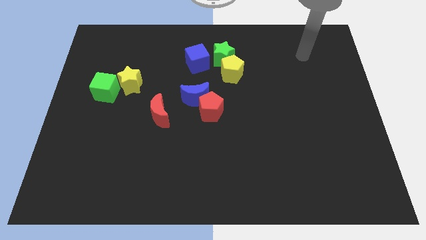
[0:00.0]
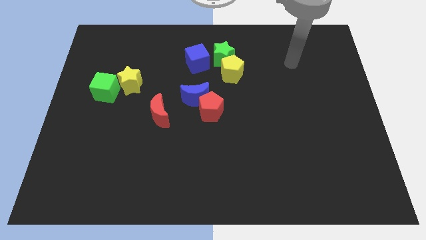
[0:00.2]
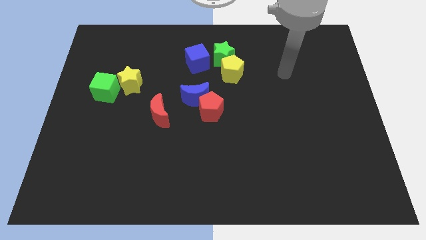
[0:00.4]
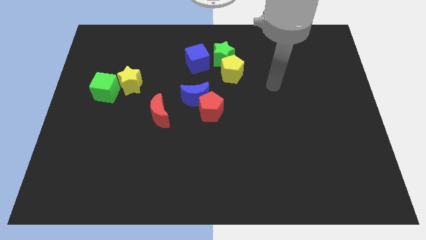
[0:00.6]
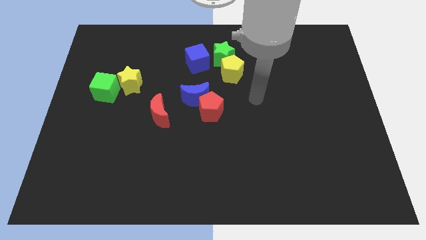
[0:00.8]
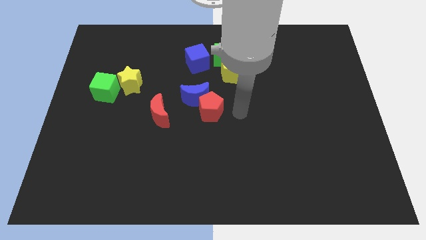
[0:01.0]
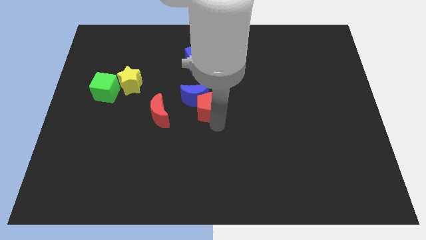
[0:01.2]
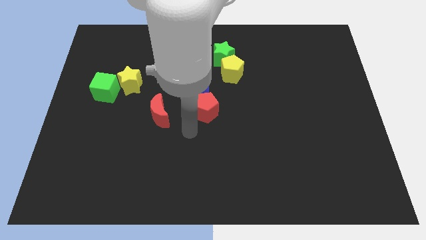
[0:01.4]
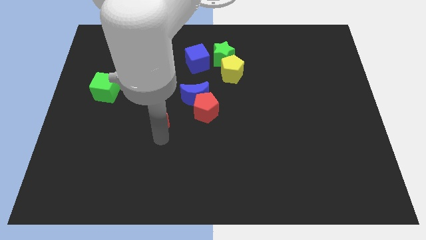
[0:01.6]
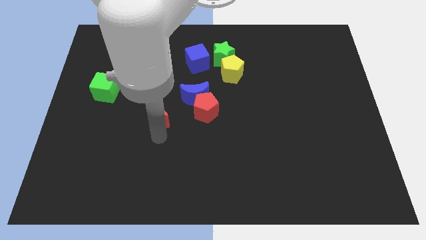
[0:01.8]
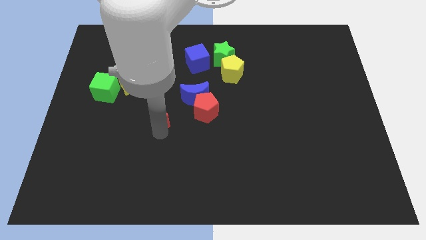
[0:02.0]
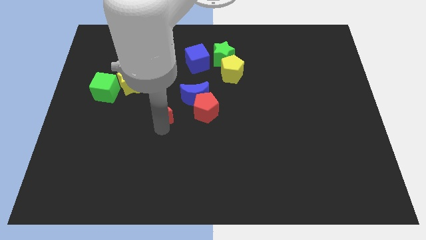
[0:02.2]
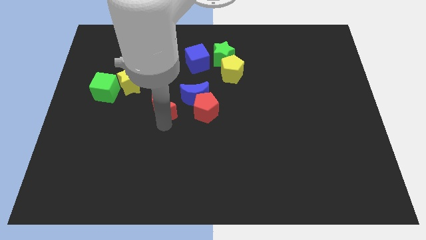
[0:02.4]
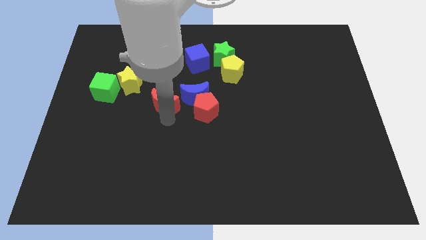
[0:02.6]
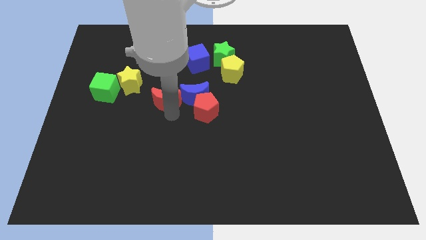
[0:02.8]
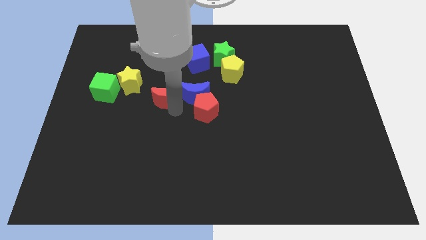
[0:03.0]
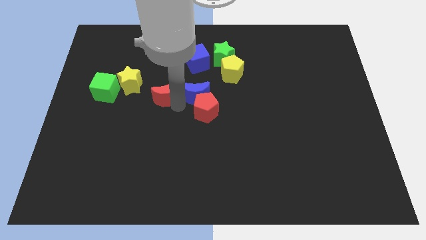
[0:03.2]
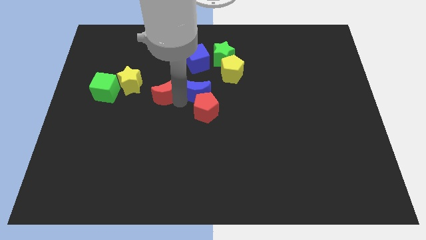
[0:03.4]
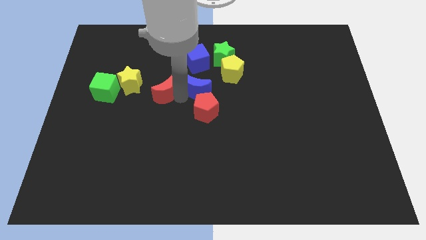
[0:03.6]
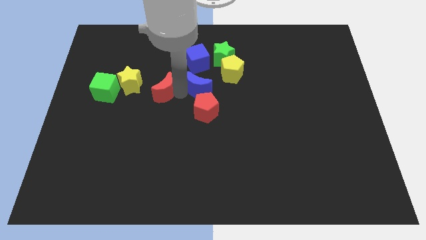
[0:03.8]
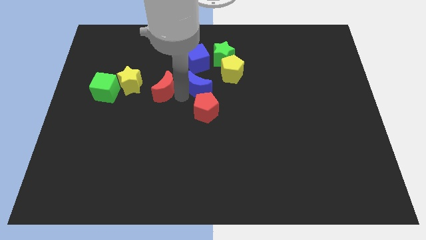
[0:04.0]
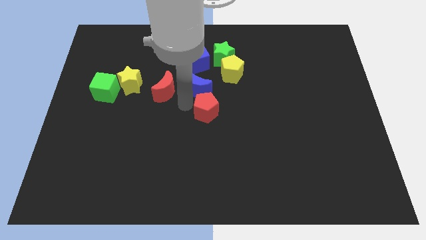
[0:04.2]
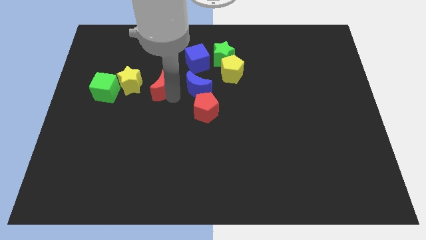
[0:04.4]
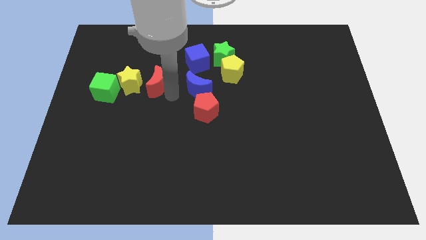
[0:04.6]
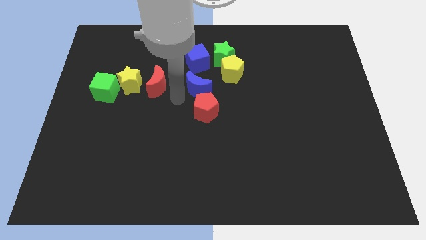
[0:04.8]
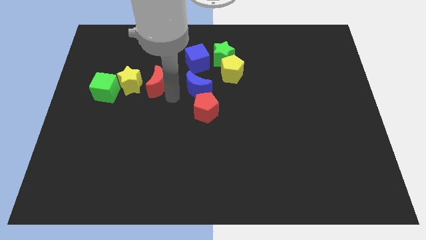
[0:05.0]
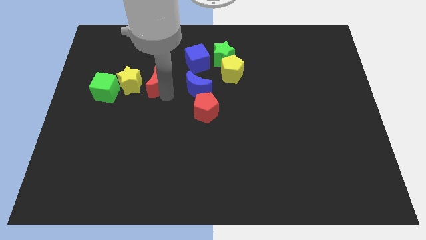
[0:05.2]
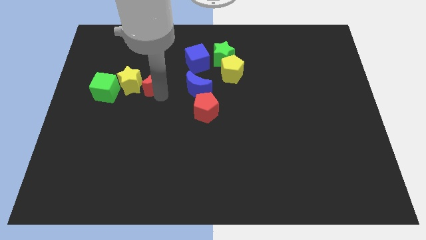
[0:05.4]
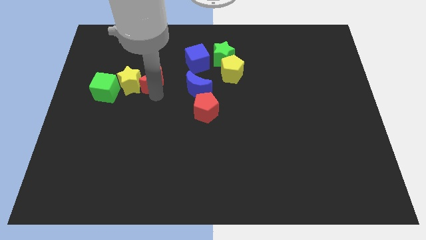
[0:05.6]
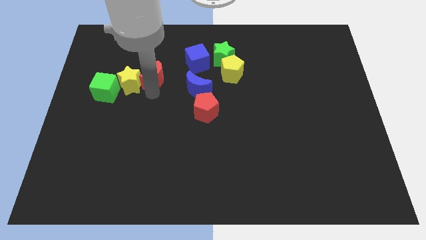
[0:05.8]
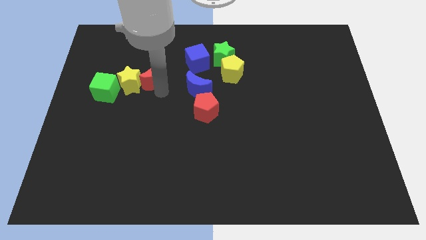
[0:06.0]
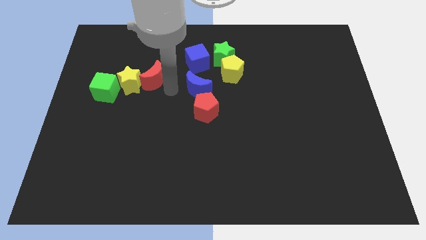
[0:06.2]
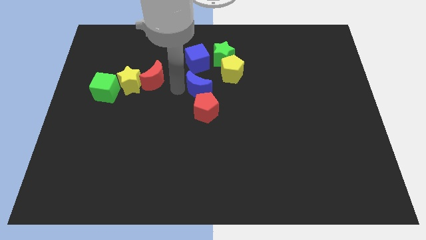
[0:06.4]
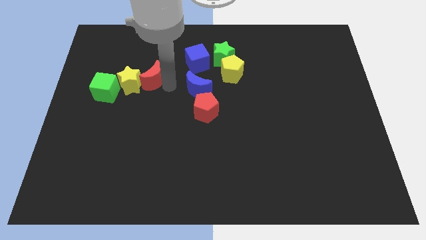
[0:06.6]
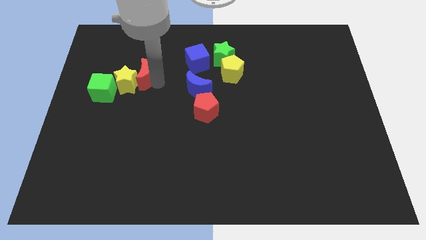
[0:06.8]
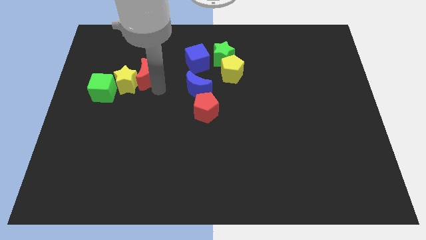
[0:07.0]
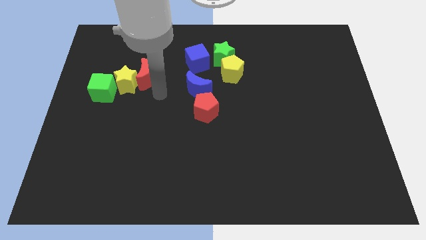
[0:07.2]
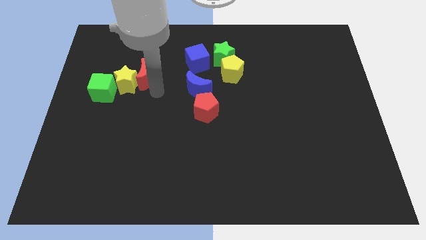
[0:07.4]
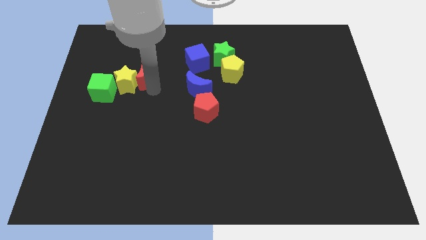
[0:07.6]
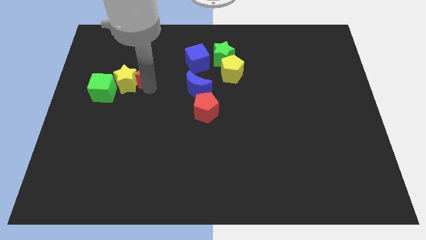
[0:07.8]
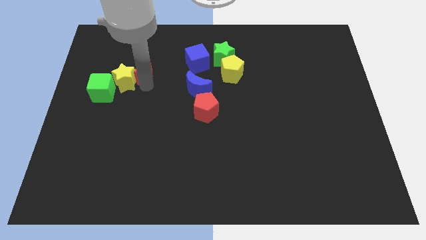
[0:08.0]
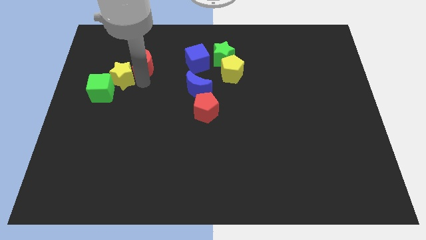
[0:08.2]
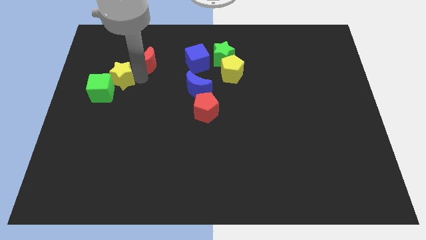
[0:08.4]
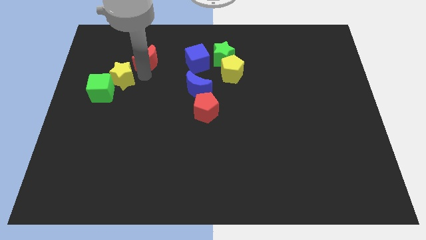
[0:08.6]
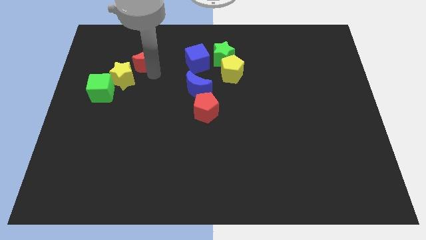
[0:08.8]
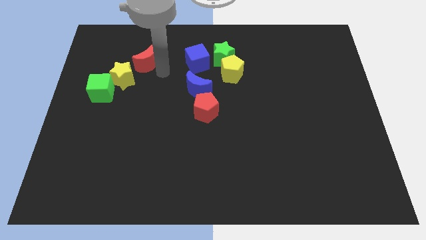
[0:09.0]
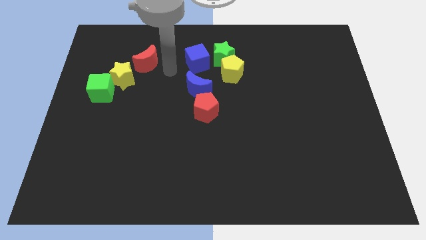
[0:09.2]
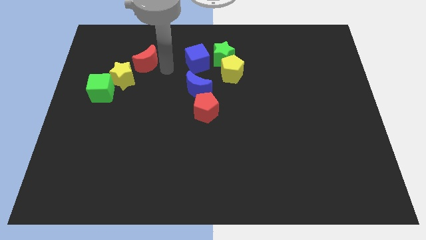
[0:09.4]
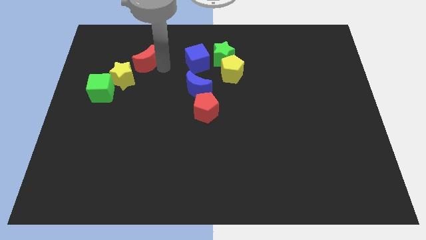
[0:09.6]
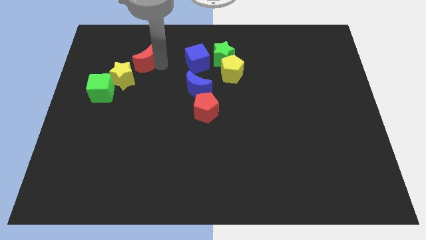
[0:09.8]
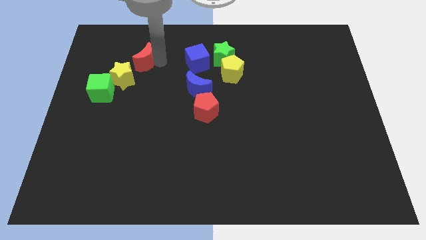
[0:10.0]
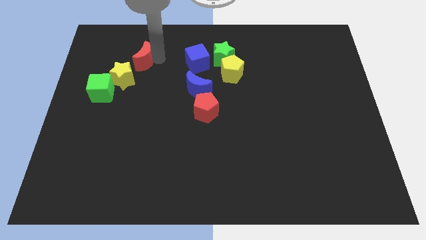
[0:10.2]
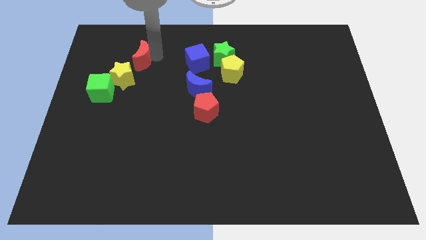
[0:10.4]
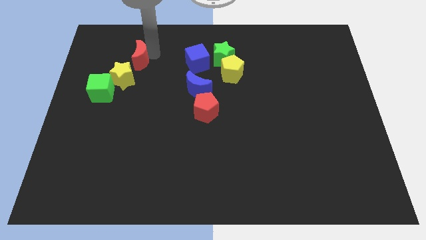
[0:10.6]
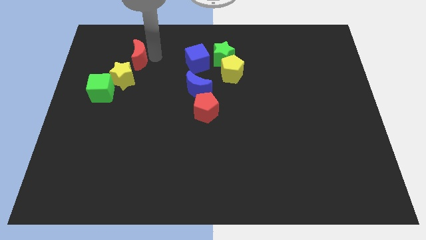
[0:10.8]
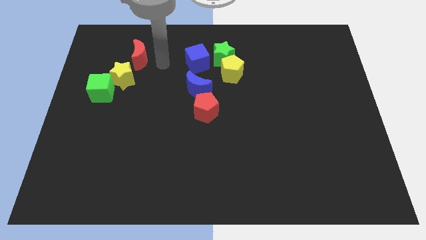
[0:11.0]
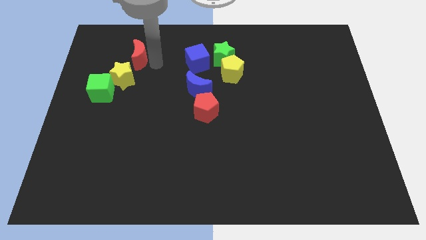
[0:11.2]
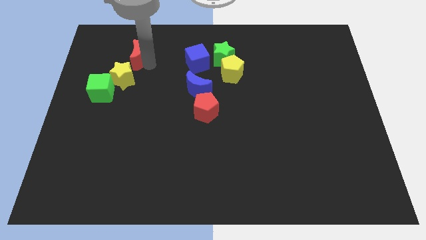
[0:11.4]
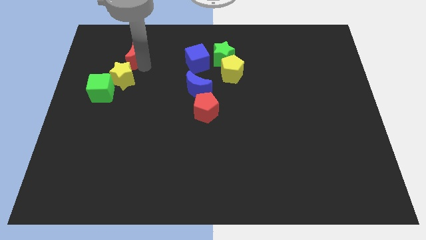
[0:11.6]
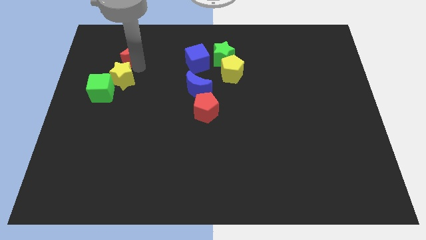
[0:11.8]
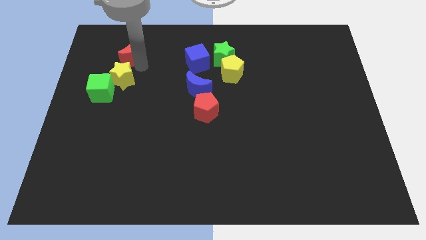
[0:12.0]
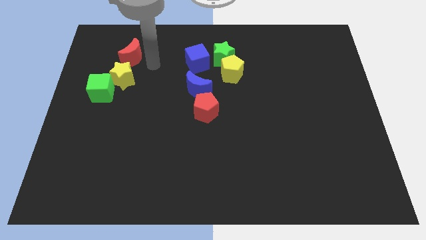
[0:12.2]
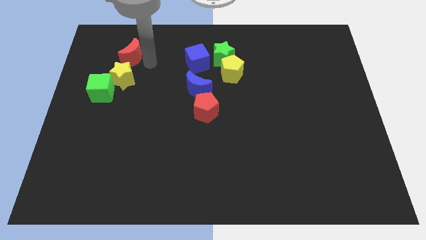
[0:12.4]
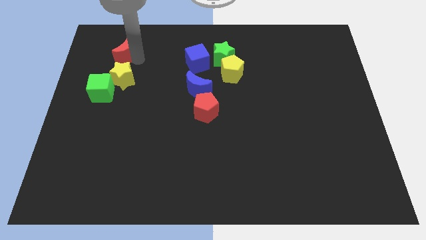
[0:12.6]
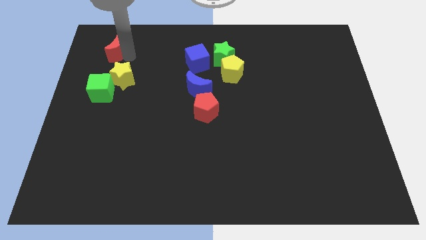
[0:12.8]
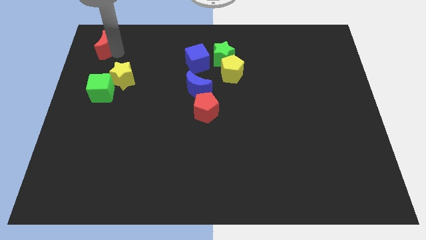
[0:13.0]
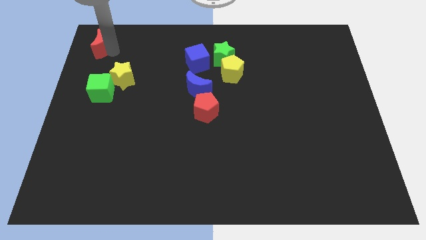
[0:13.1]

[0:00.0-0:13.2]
push the red moon to the top left
